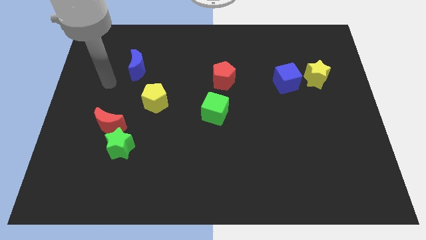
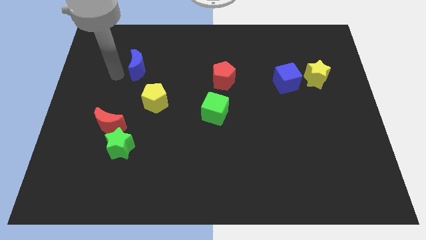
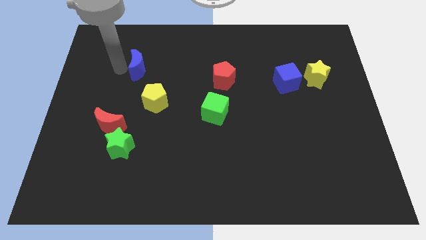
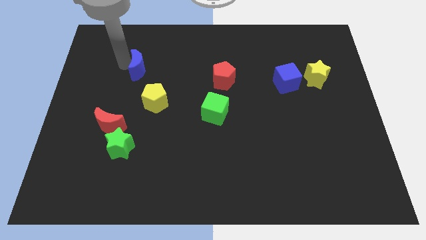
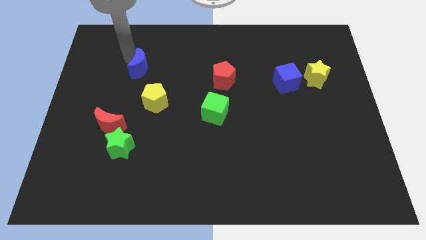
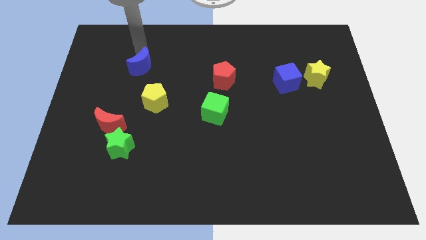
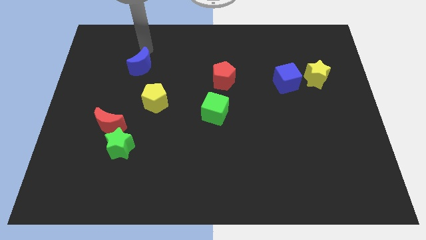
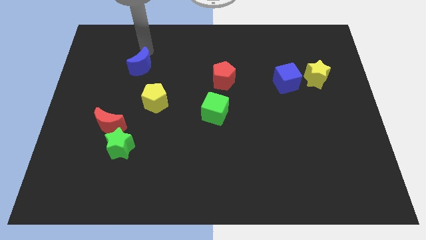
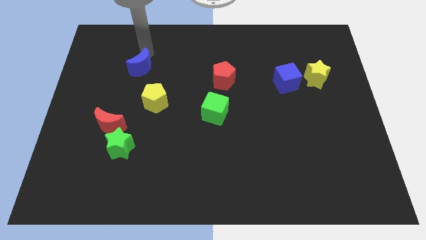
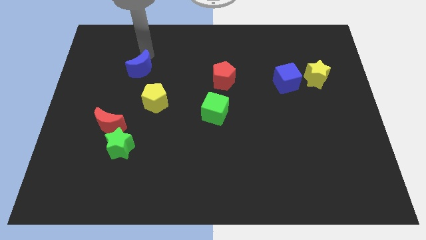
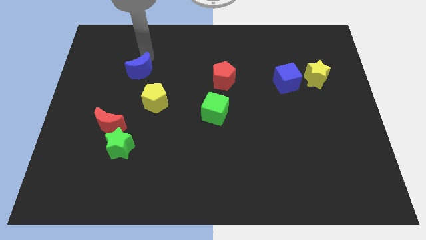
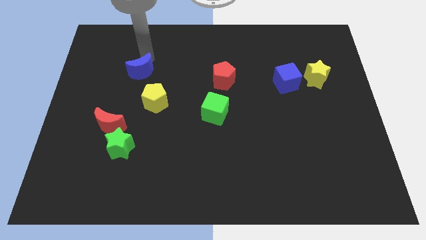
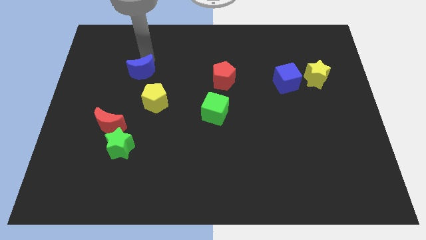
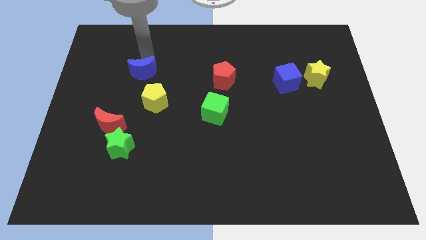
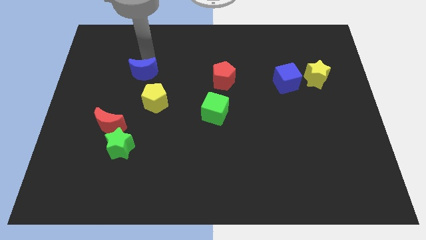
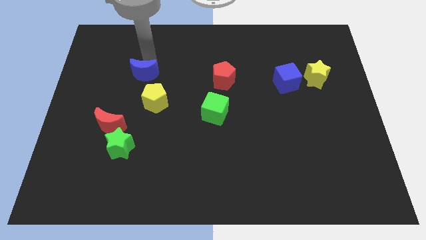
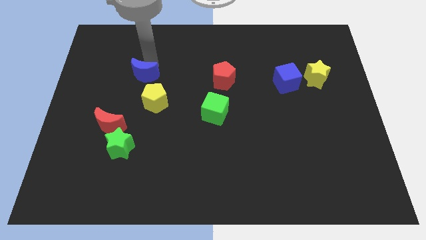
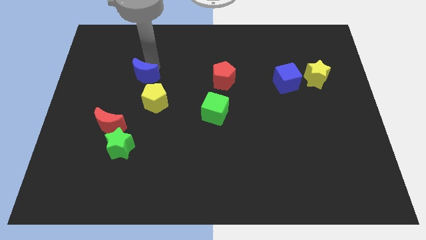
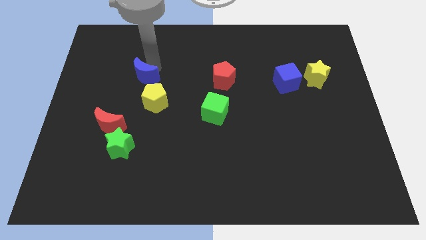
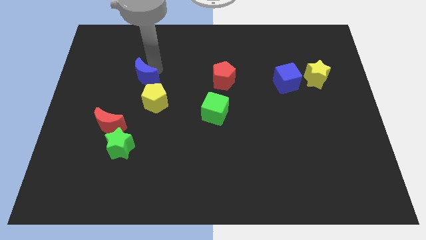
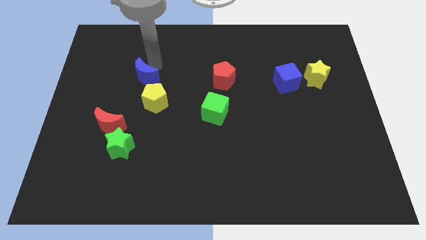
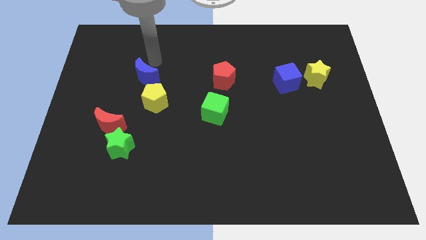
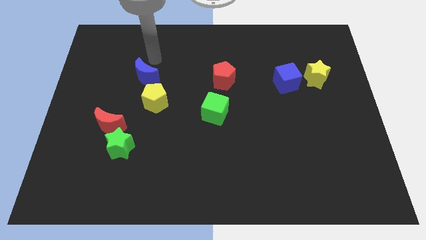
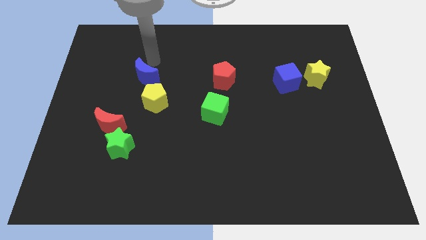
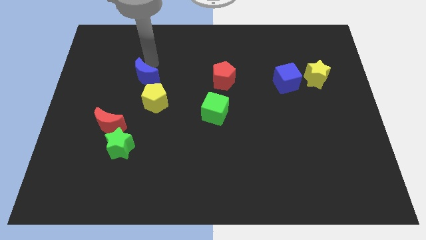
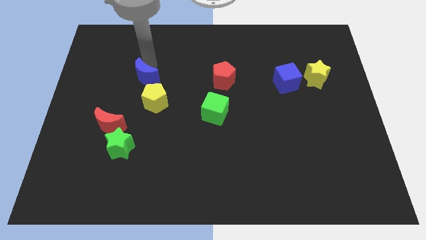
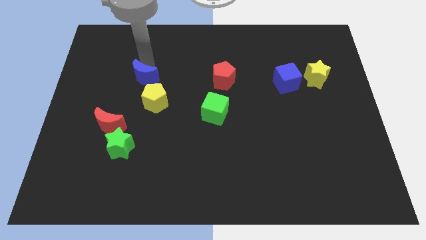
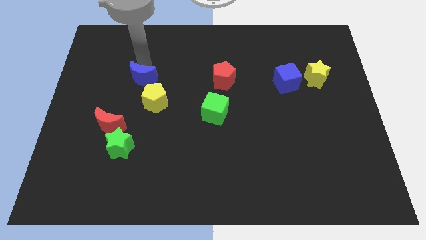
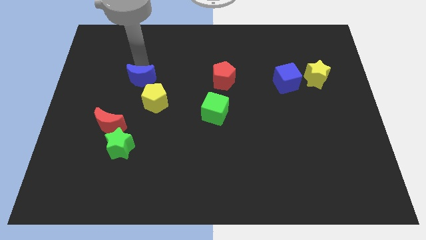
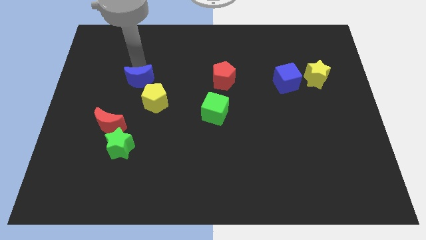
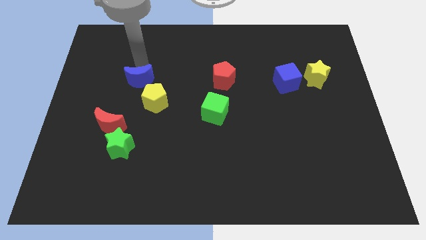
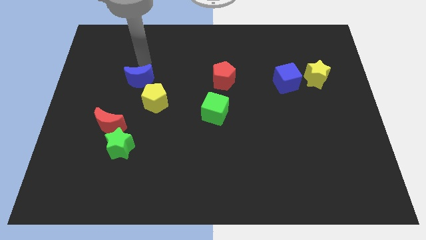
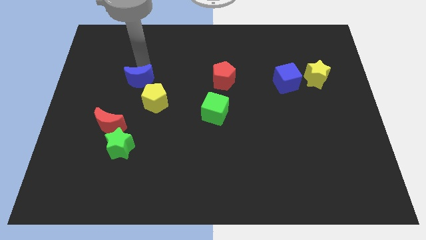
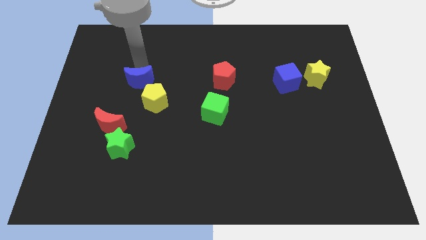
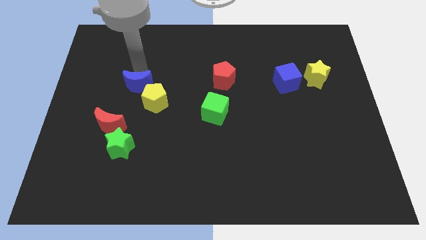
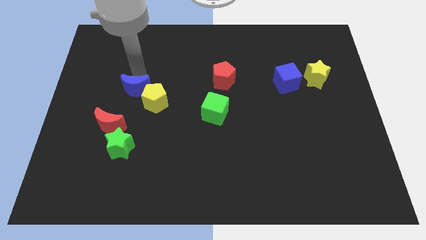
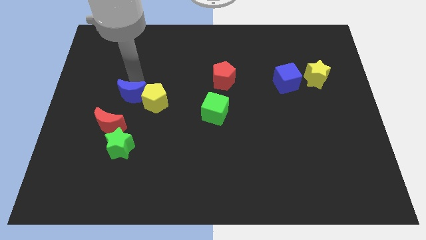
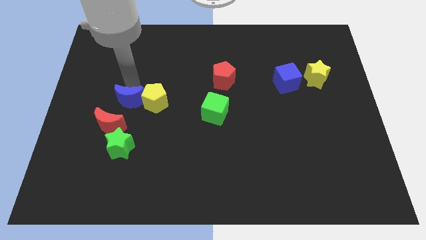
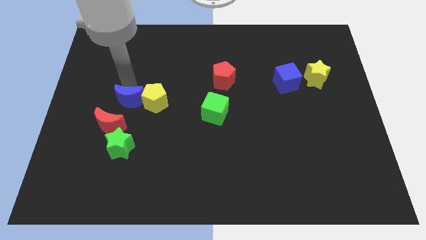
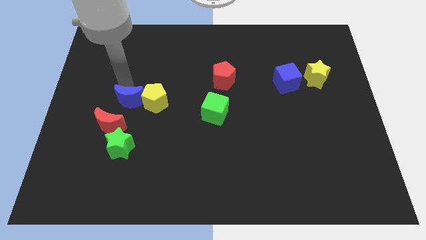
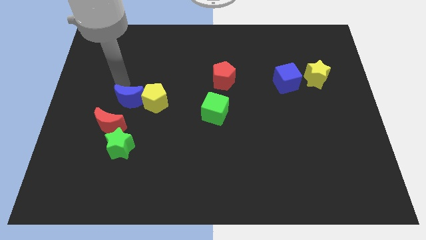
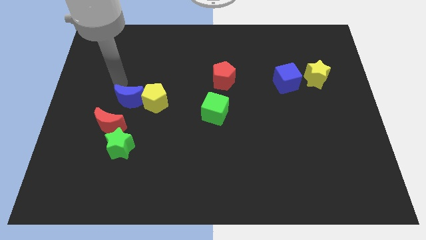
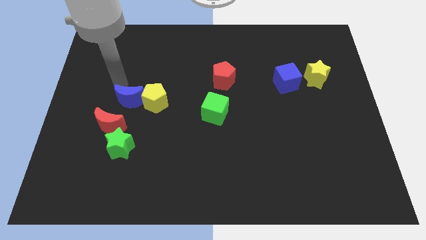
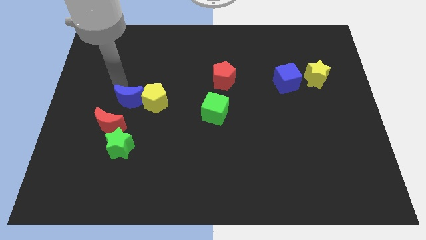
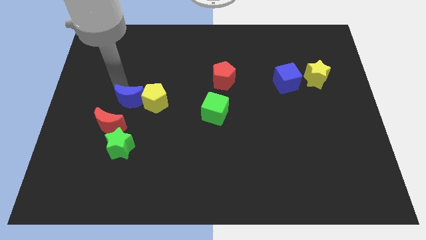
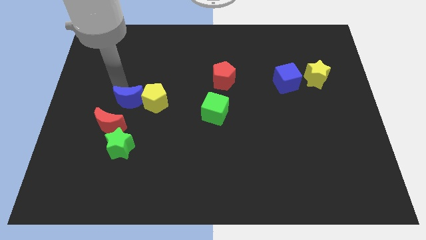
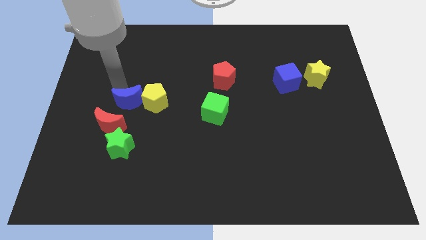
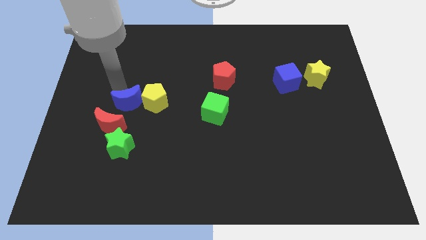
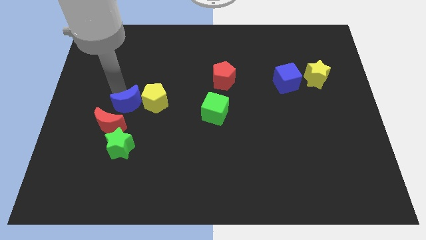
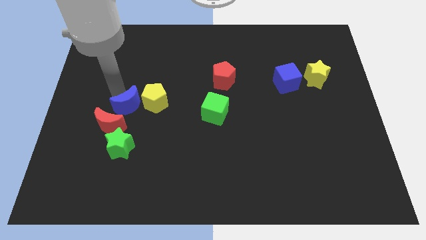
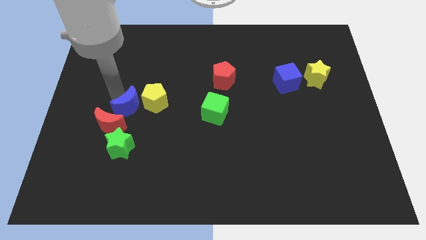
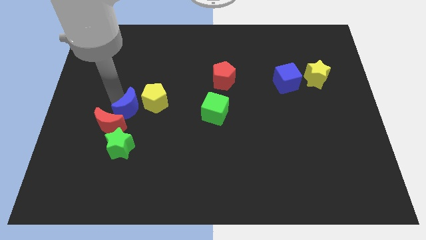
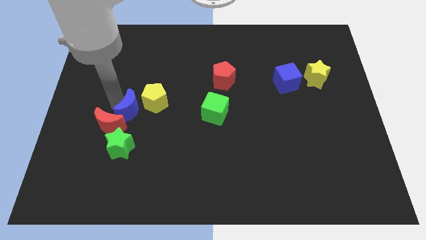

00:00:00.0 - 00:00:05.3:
push the blue moon to the right side of the red moon

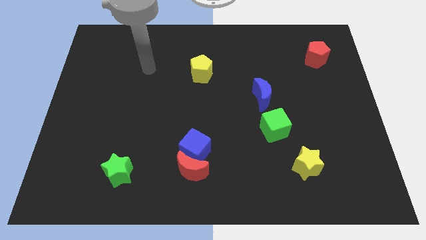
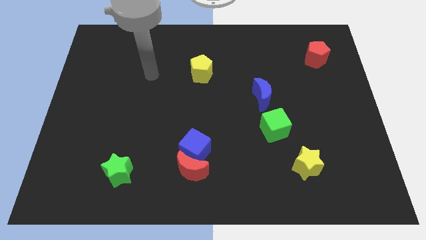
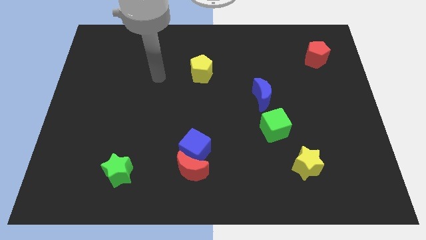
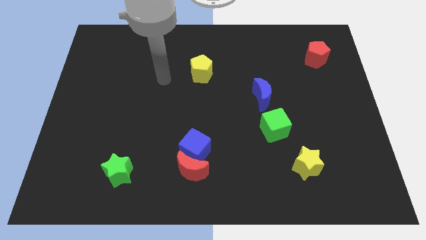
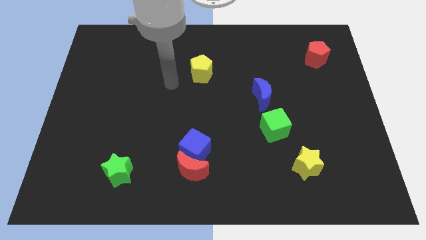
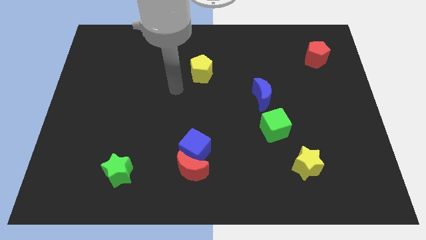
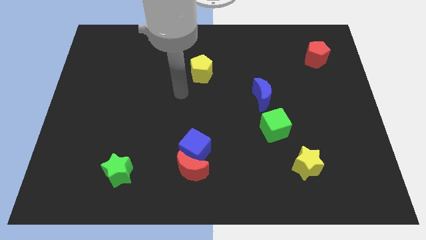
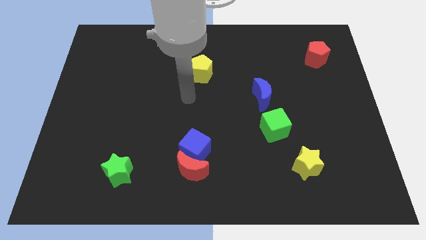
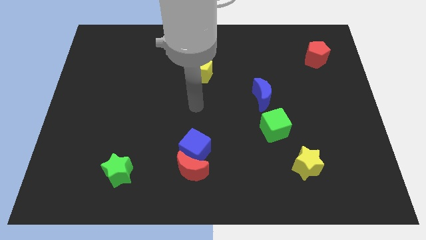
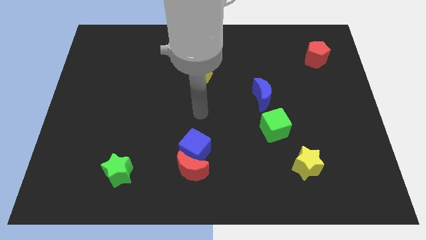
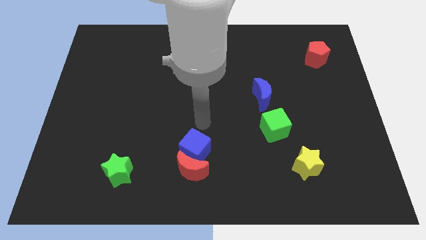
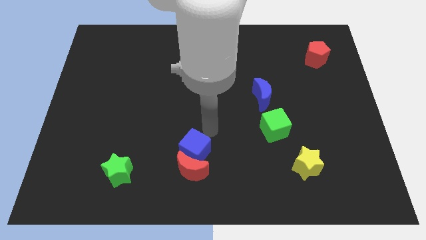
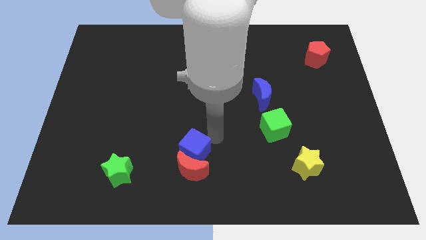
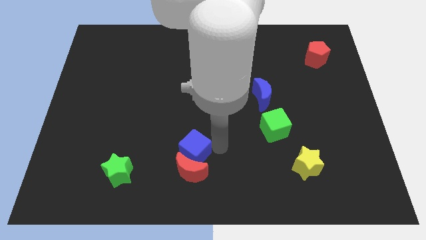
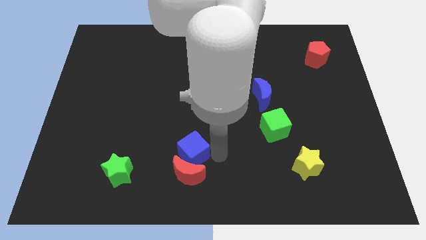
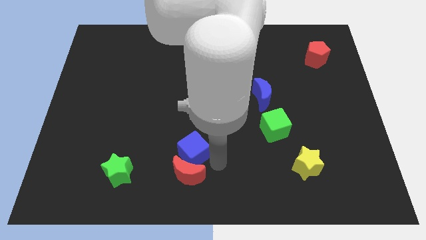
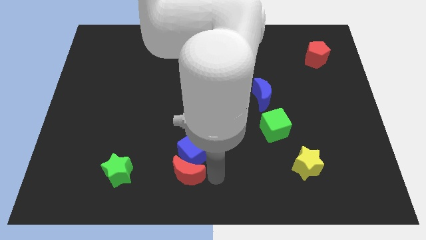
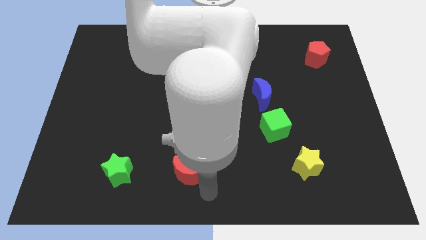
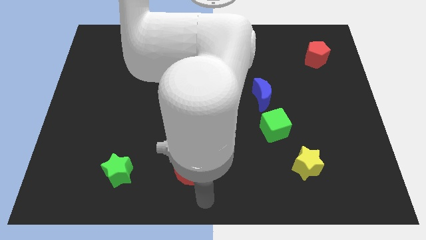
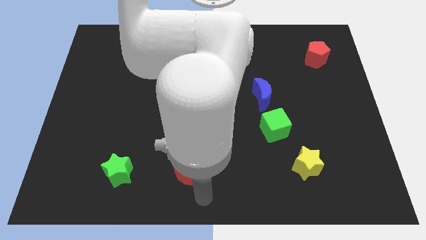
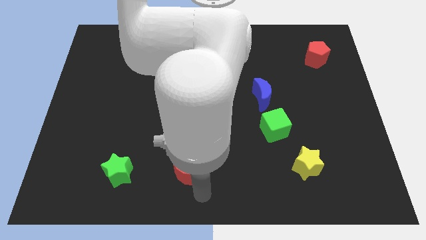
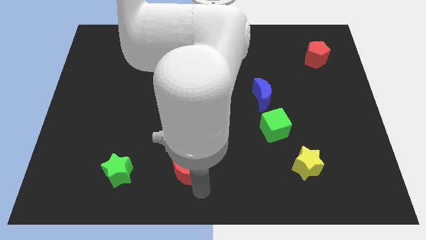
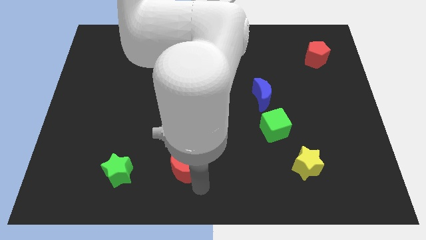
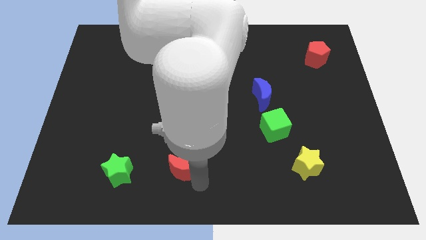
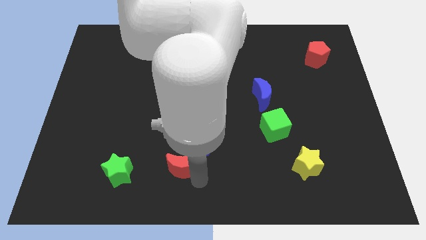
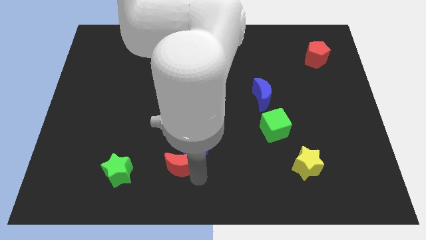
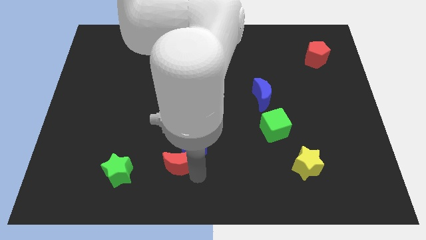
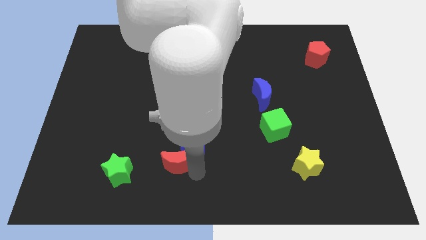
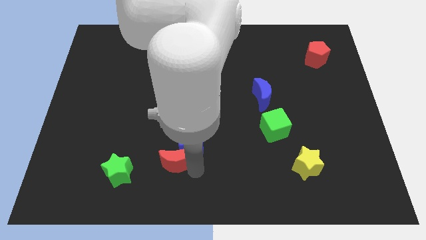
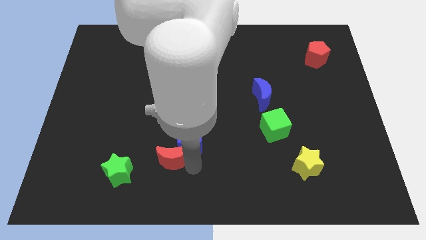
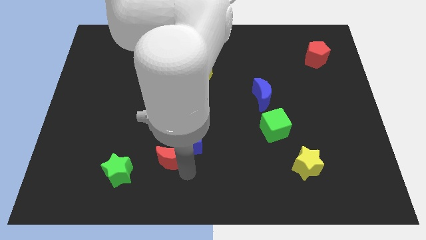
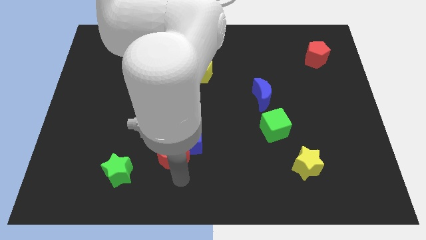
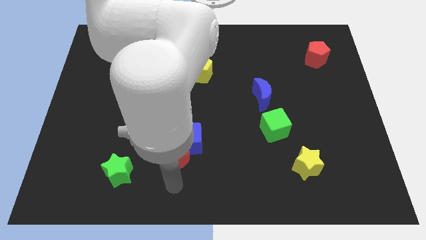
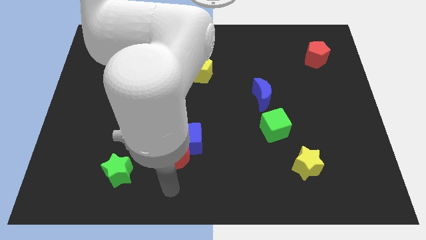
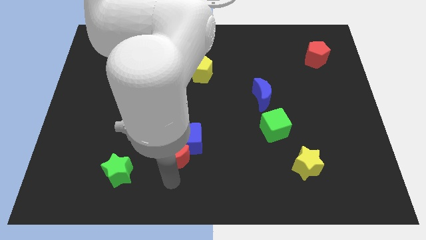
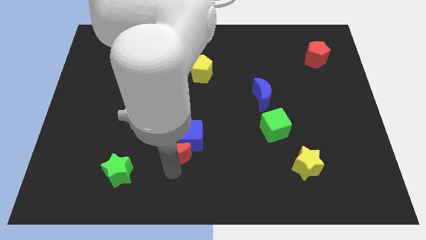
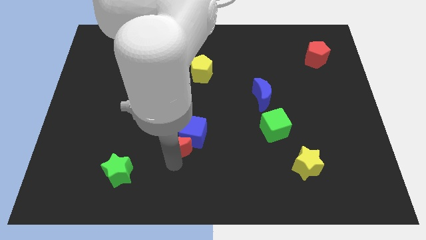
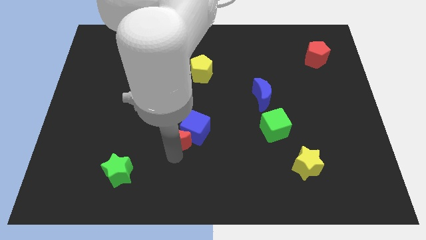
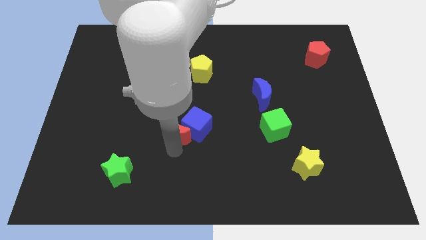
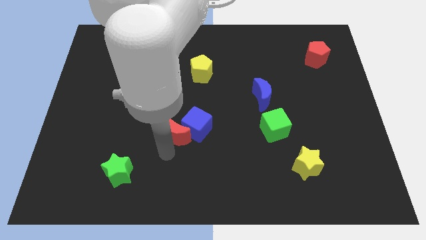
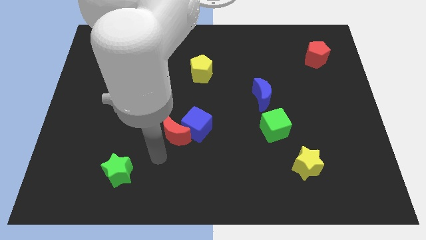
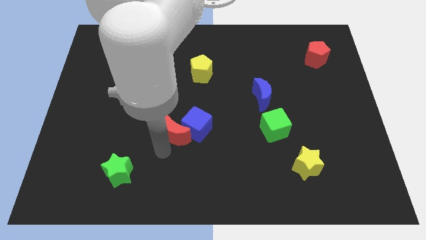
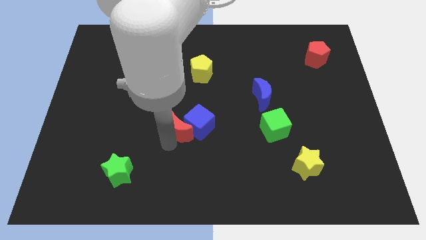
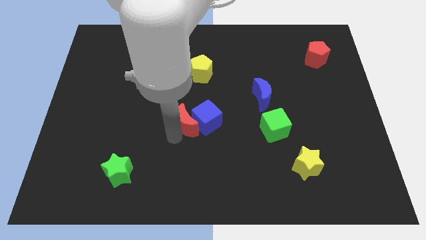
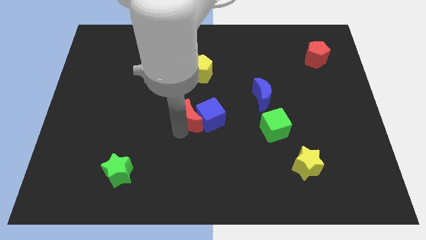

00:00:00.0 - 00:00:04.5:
move the red moon below the yellow pentagon
